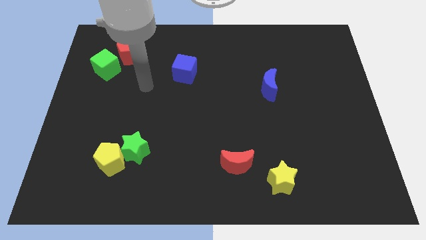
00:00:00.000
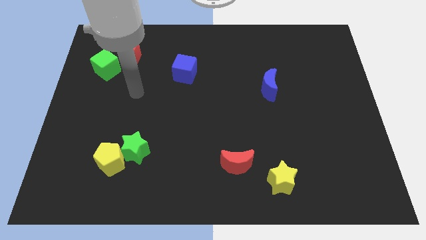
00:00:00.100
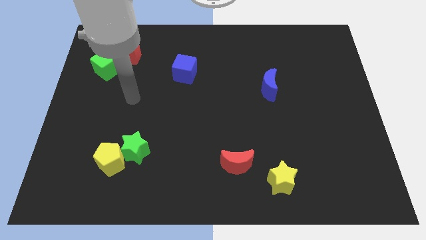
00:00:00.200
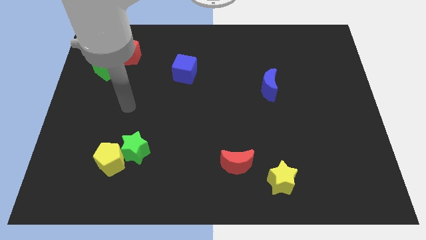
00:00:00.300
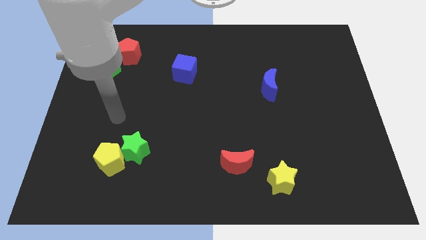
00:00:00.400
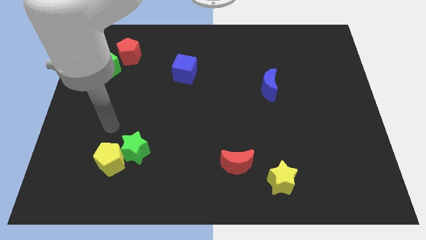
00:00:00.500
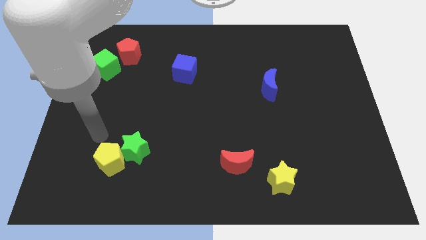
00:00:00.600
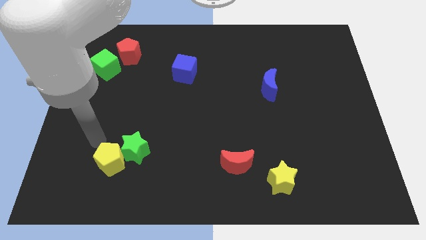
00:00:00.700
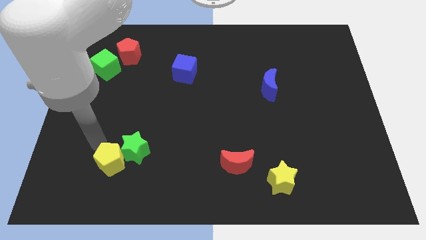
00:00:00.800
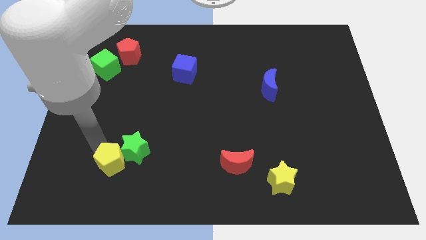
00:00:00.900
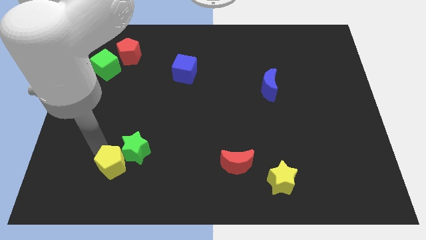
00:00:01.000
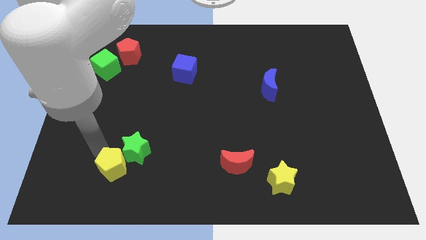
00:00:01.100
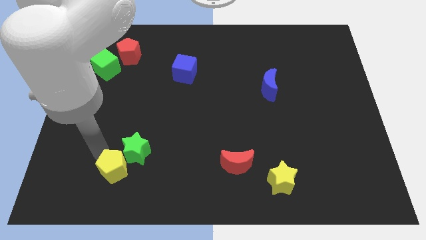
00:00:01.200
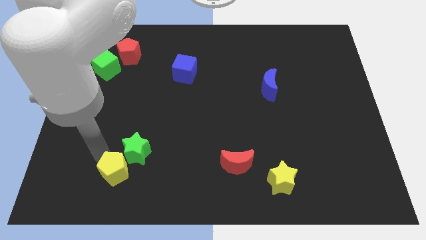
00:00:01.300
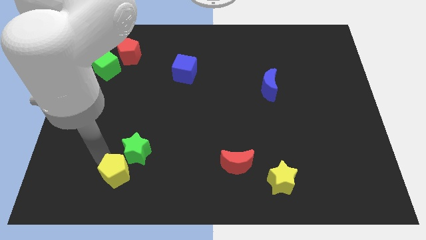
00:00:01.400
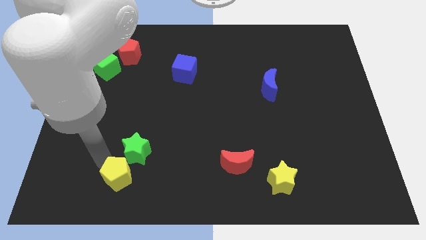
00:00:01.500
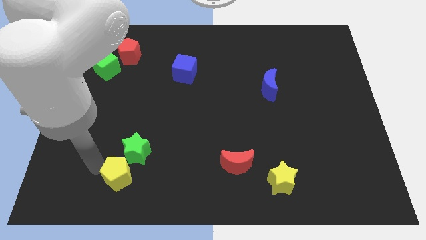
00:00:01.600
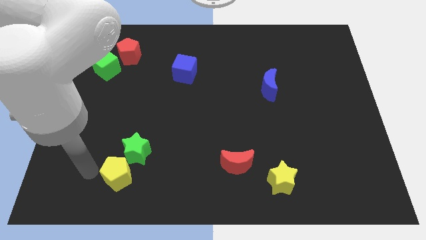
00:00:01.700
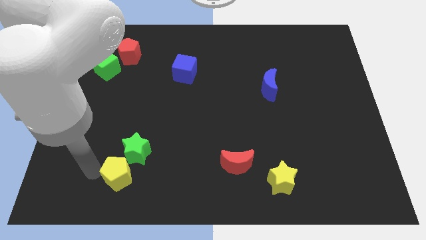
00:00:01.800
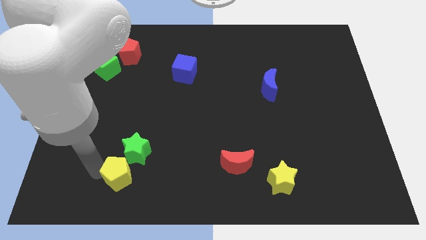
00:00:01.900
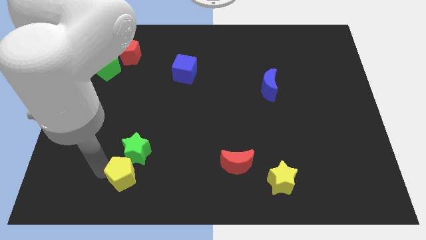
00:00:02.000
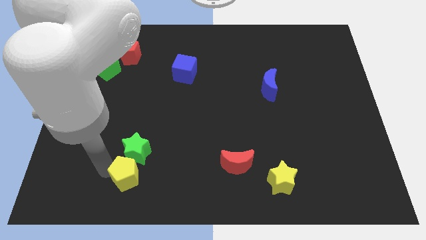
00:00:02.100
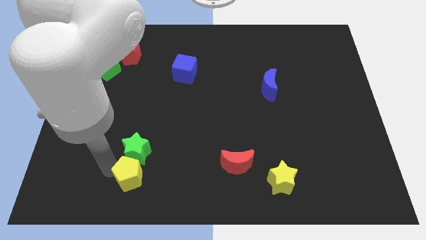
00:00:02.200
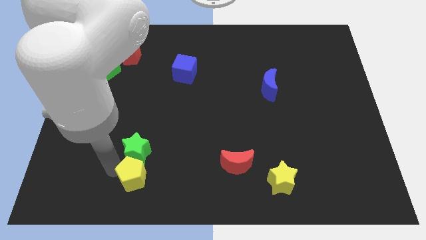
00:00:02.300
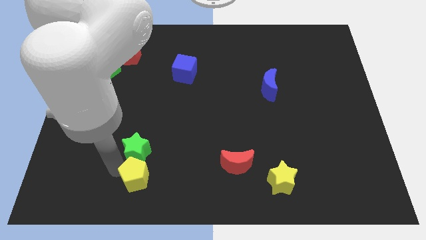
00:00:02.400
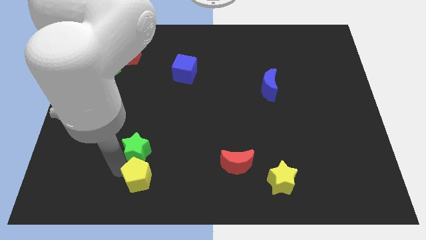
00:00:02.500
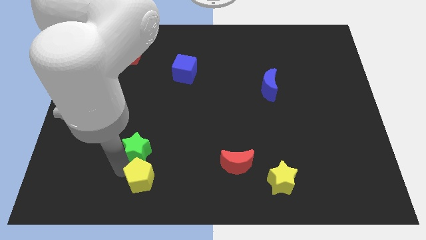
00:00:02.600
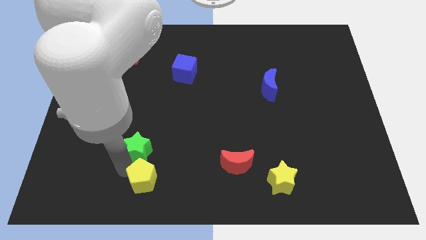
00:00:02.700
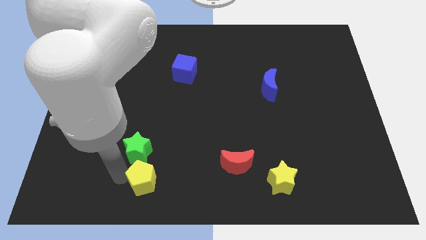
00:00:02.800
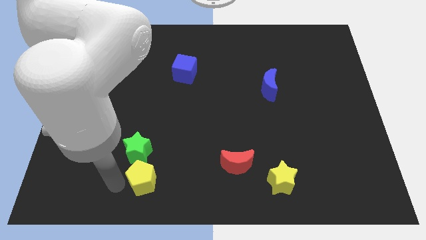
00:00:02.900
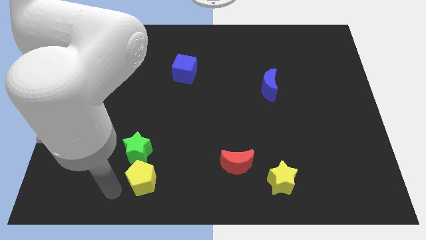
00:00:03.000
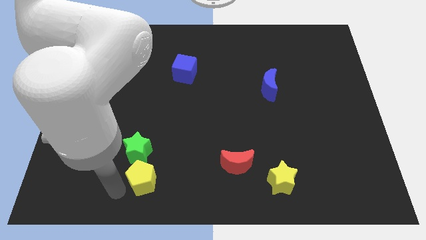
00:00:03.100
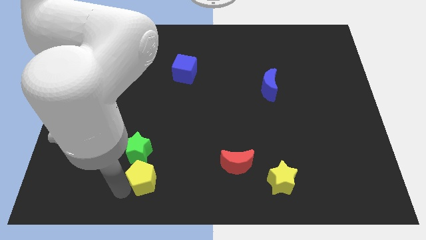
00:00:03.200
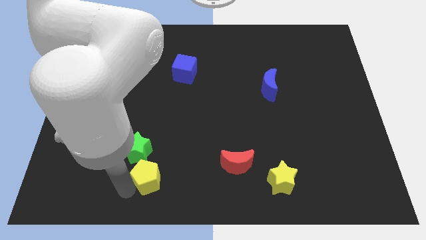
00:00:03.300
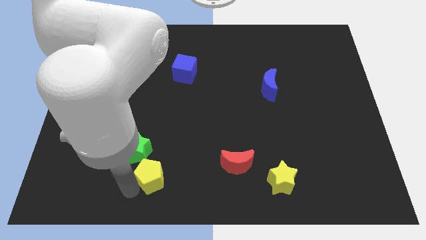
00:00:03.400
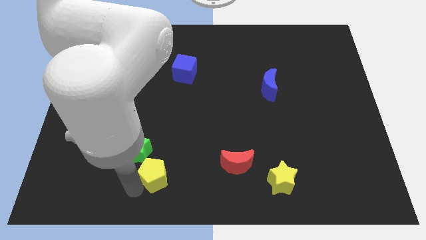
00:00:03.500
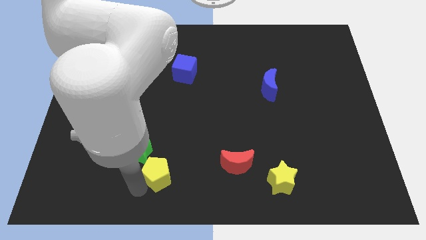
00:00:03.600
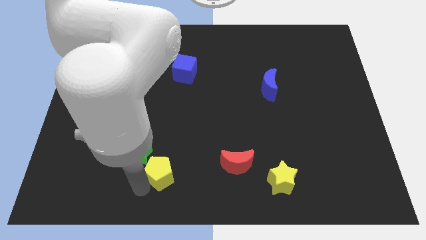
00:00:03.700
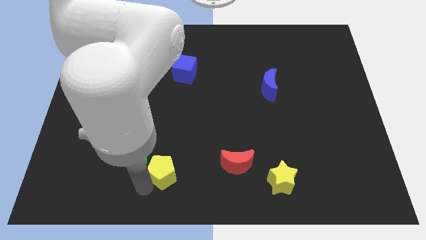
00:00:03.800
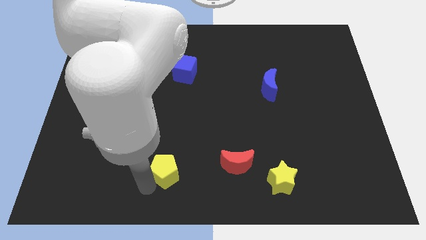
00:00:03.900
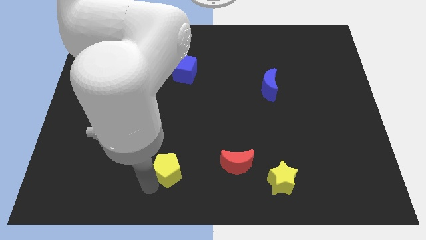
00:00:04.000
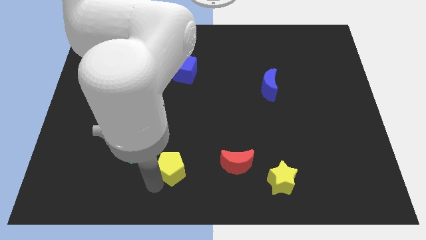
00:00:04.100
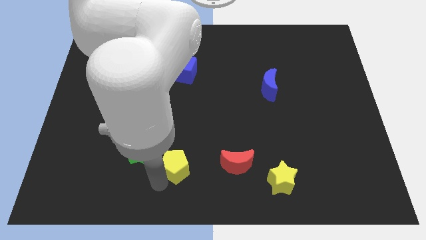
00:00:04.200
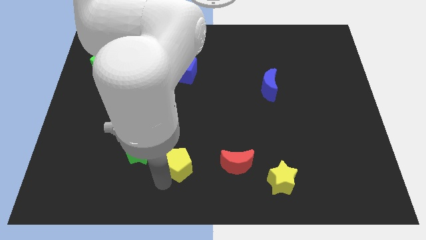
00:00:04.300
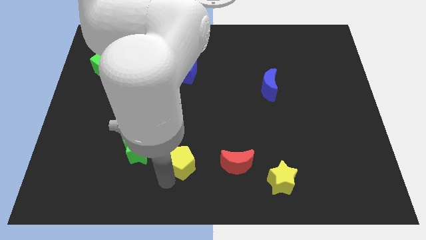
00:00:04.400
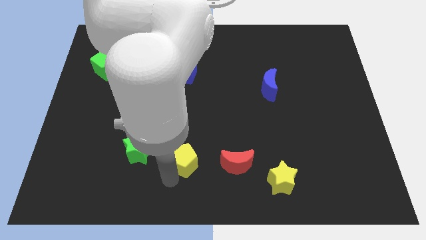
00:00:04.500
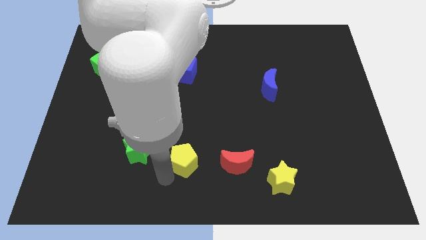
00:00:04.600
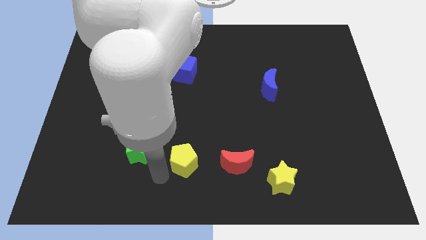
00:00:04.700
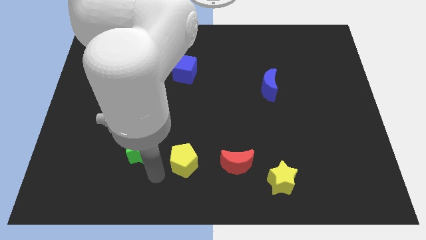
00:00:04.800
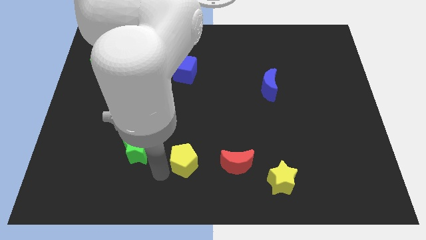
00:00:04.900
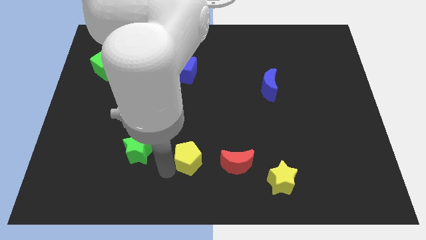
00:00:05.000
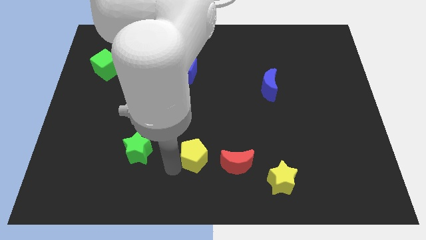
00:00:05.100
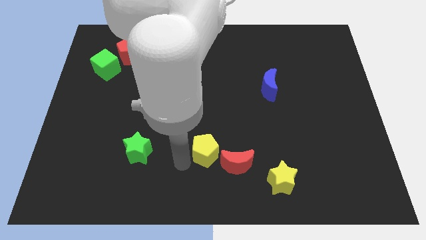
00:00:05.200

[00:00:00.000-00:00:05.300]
push the yellow pentagon right

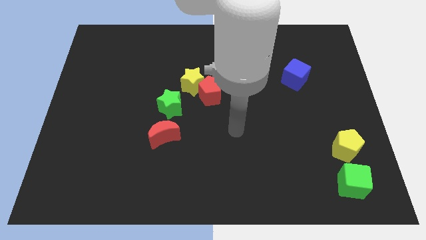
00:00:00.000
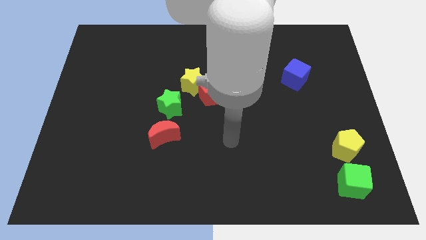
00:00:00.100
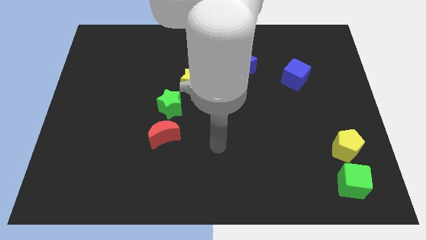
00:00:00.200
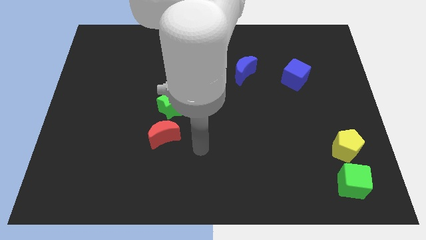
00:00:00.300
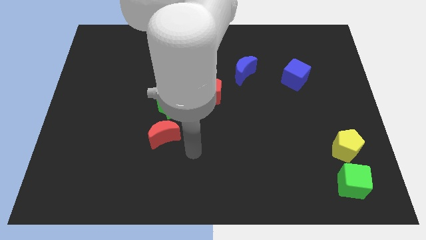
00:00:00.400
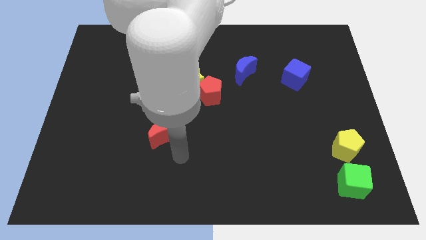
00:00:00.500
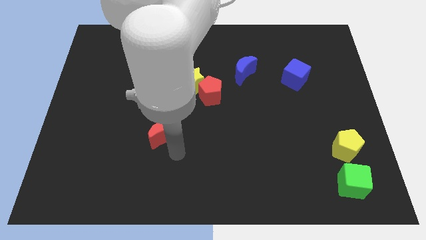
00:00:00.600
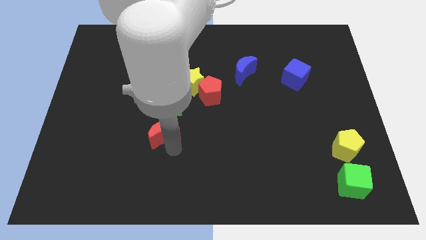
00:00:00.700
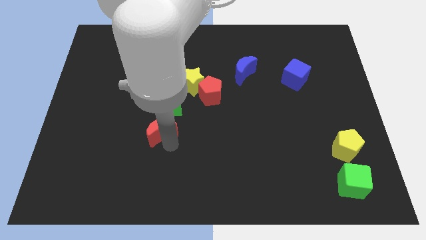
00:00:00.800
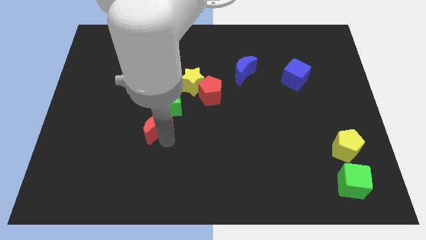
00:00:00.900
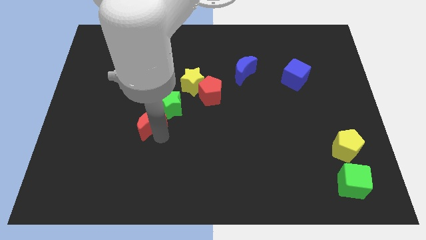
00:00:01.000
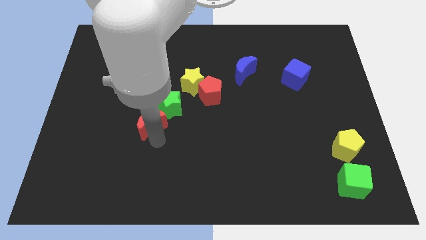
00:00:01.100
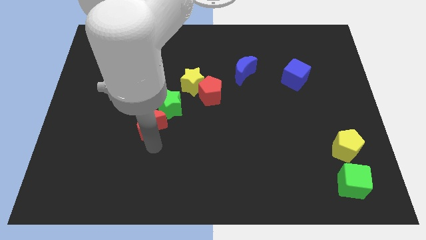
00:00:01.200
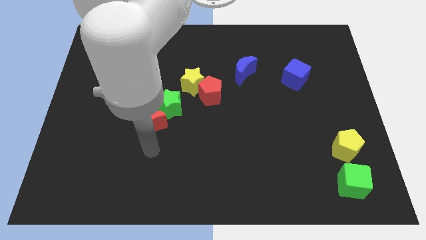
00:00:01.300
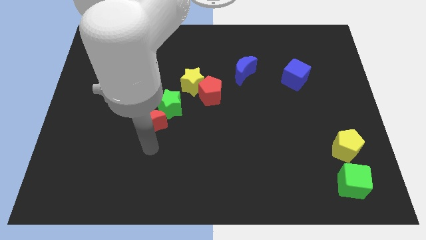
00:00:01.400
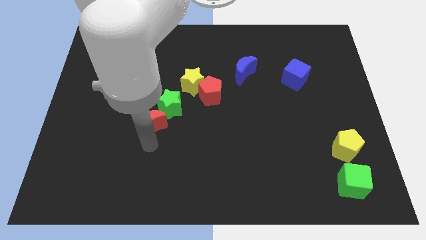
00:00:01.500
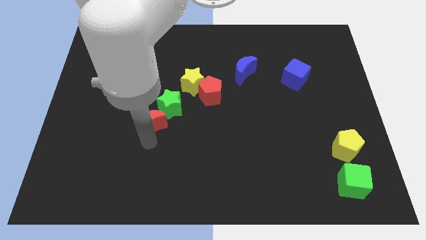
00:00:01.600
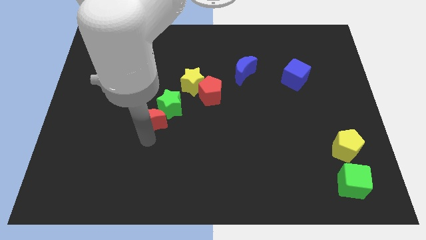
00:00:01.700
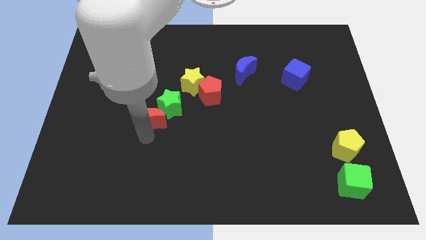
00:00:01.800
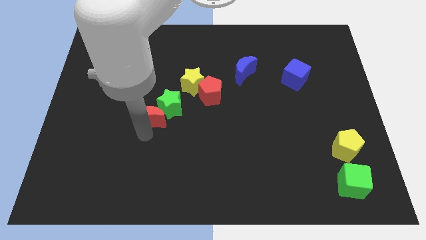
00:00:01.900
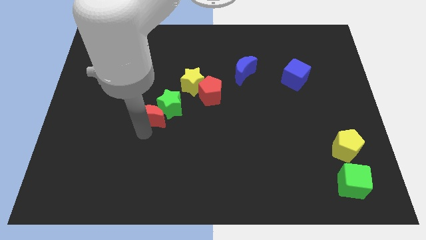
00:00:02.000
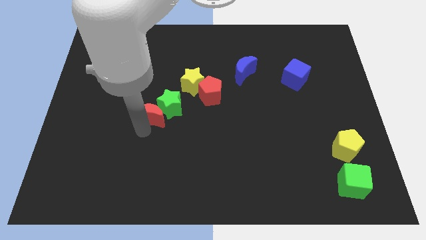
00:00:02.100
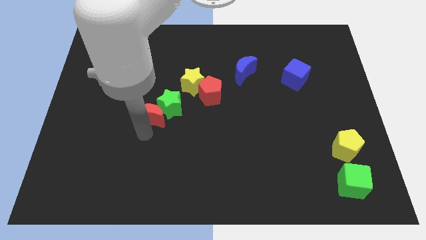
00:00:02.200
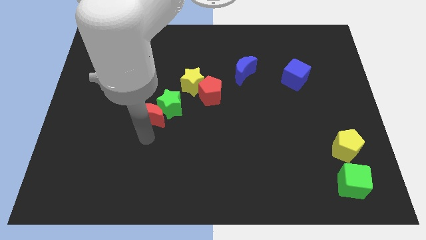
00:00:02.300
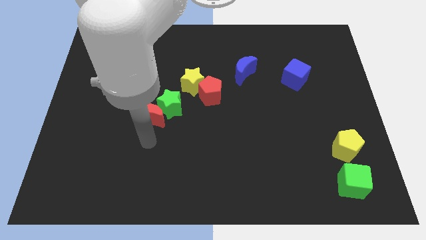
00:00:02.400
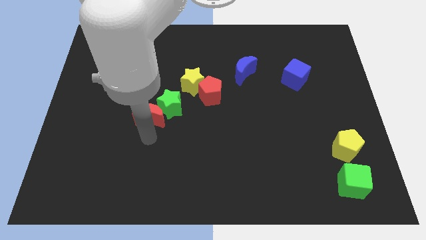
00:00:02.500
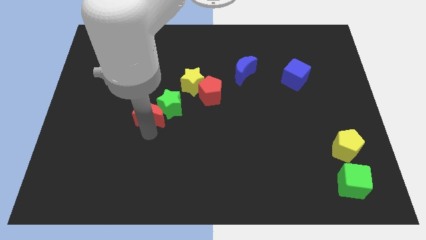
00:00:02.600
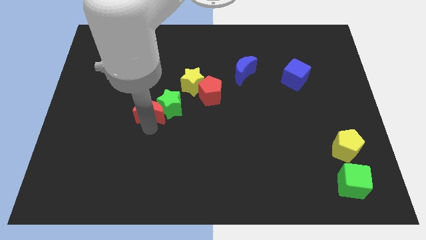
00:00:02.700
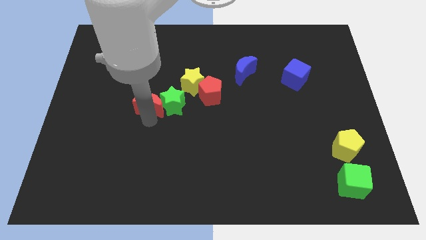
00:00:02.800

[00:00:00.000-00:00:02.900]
slide the red moon up slightly

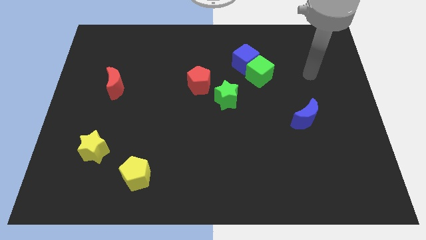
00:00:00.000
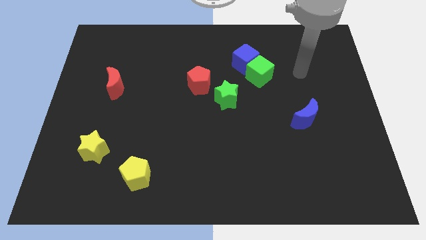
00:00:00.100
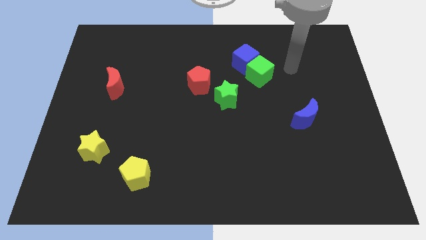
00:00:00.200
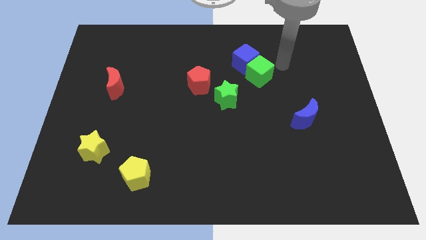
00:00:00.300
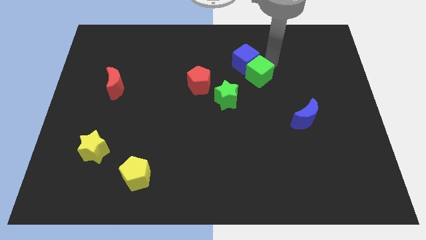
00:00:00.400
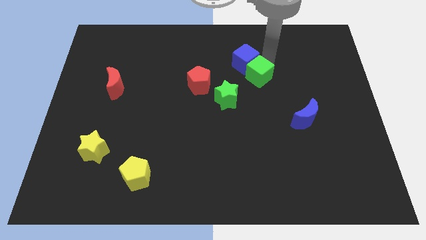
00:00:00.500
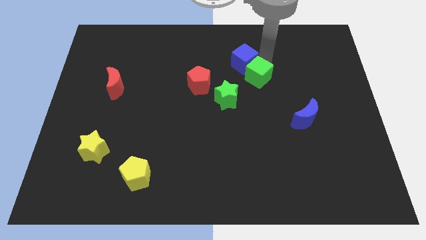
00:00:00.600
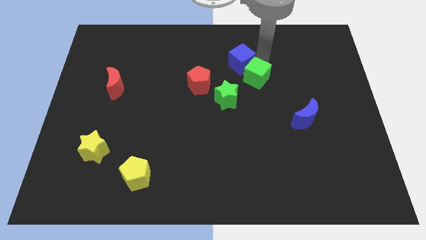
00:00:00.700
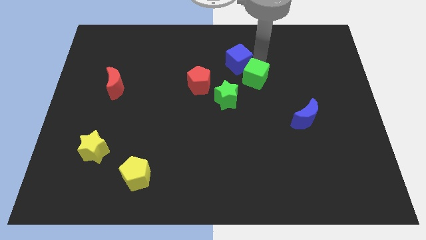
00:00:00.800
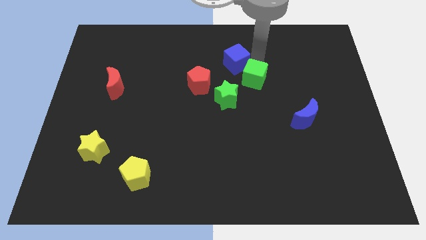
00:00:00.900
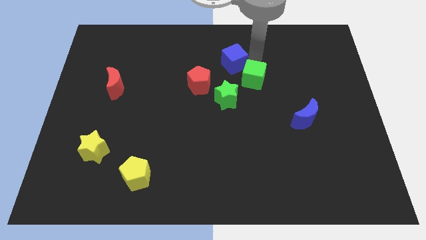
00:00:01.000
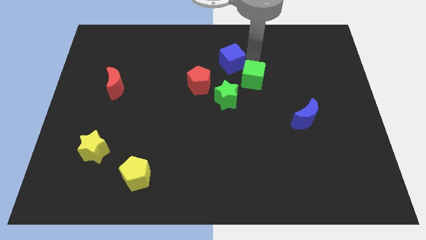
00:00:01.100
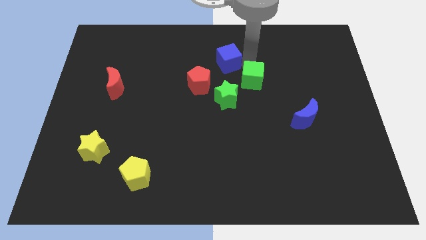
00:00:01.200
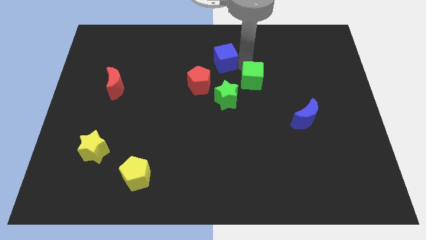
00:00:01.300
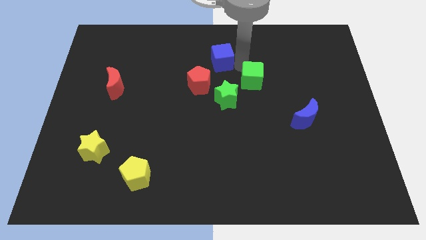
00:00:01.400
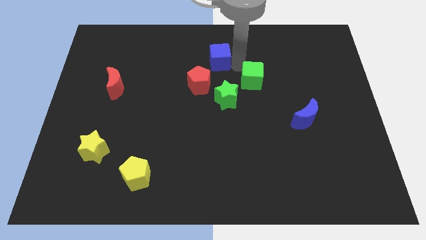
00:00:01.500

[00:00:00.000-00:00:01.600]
push the blue cube to the left a little bit
